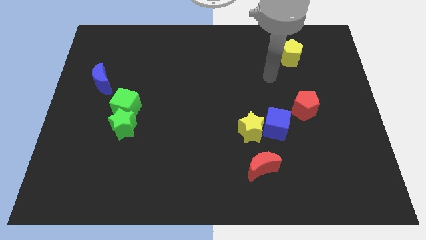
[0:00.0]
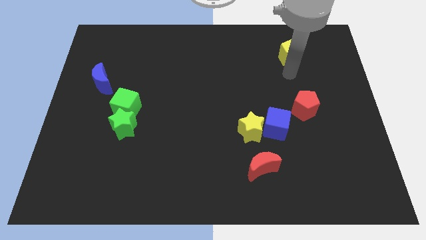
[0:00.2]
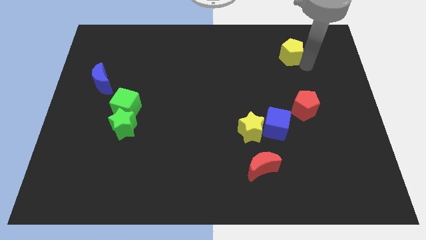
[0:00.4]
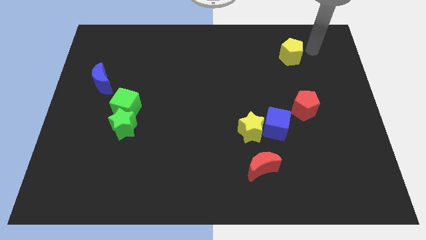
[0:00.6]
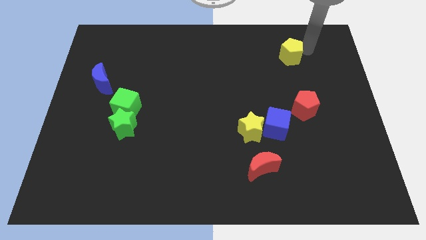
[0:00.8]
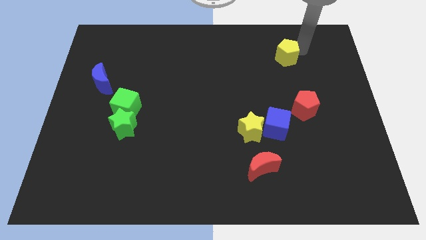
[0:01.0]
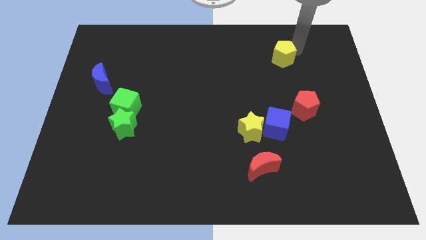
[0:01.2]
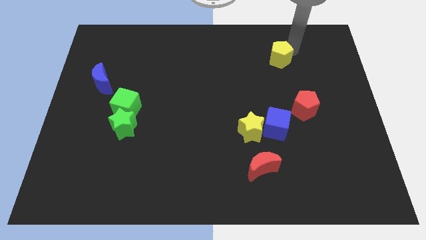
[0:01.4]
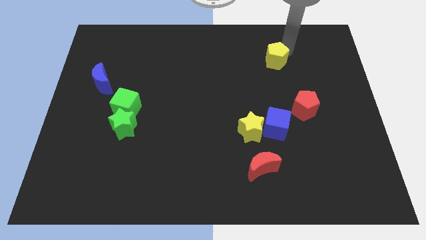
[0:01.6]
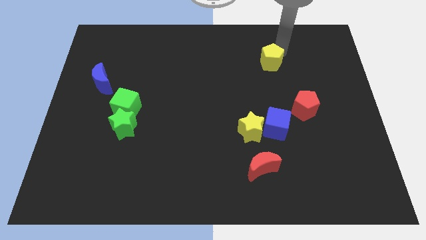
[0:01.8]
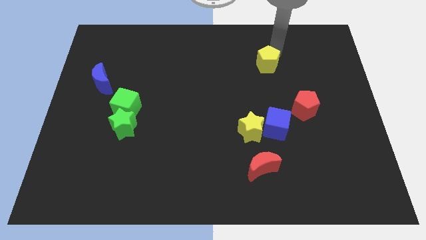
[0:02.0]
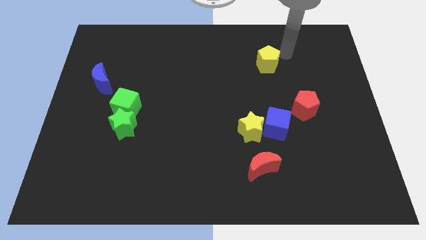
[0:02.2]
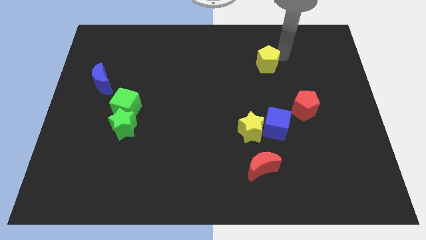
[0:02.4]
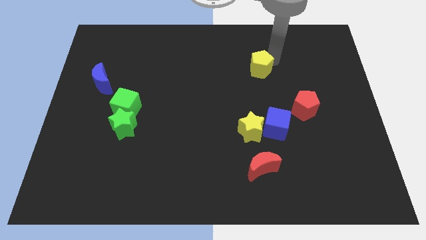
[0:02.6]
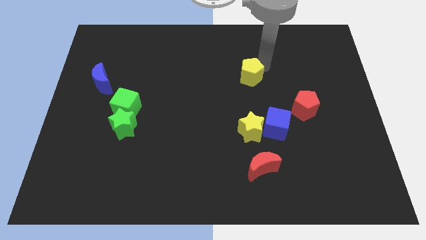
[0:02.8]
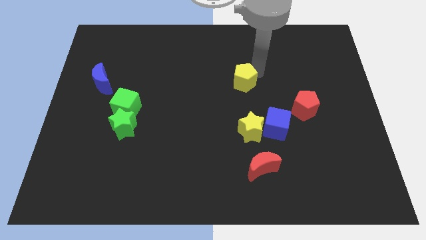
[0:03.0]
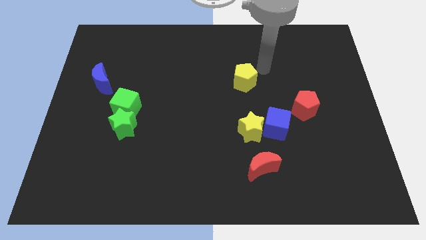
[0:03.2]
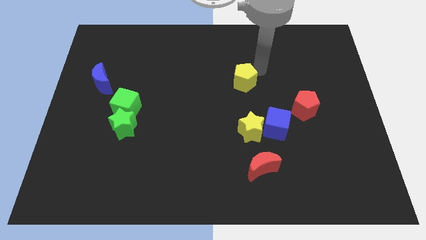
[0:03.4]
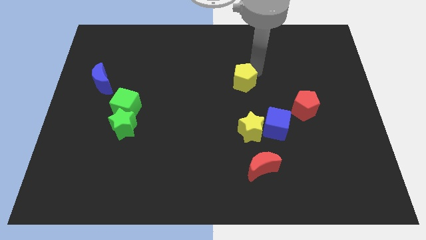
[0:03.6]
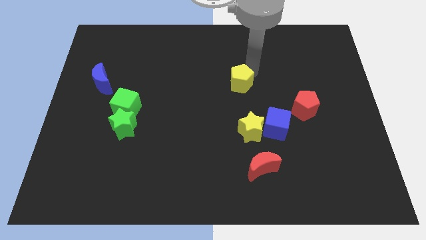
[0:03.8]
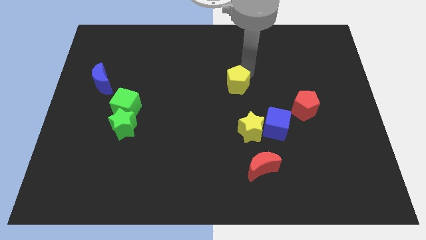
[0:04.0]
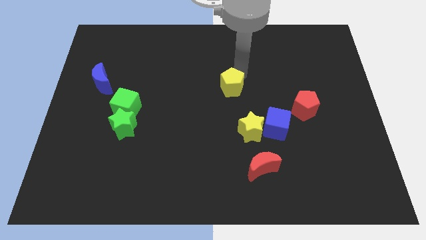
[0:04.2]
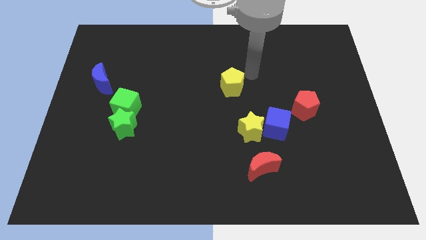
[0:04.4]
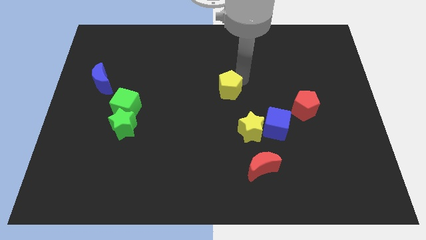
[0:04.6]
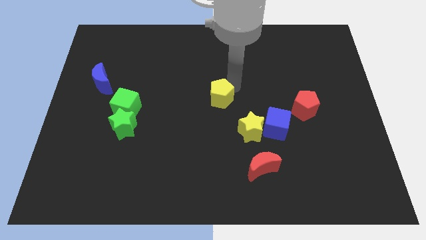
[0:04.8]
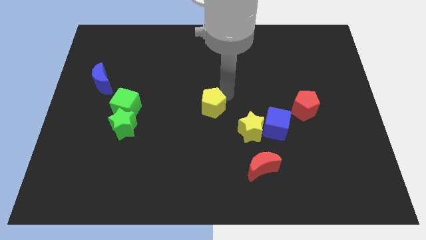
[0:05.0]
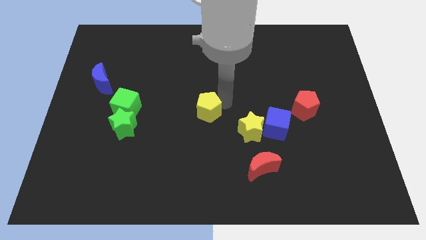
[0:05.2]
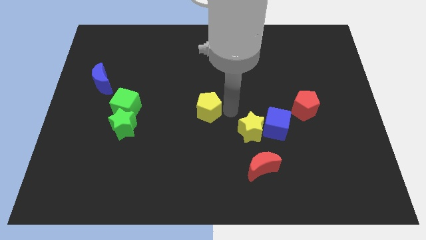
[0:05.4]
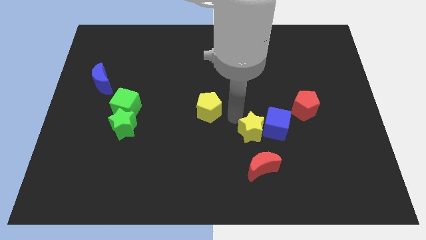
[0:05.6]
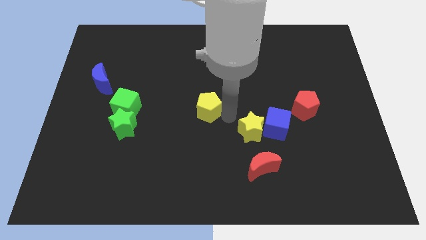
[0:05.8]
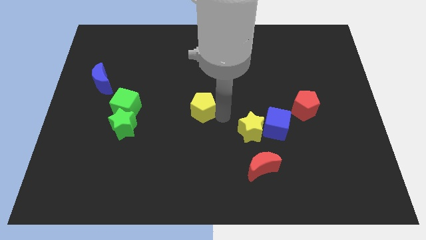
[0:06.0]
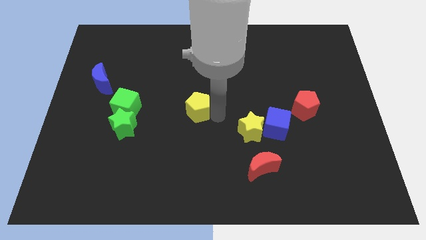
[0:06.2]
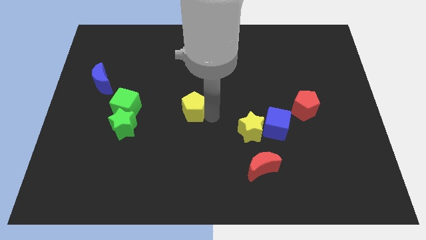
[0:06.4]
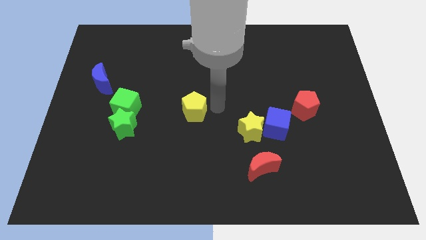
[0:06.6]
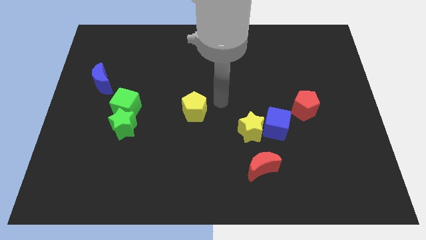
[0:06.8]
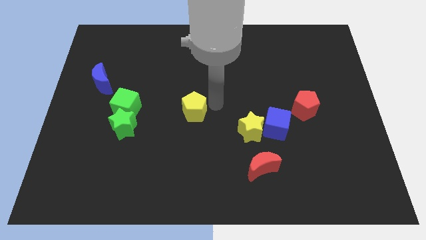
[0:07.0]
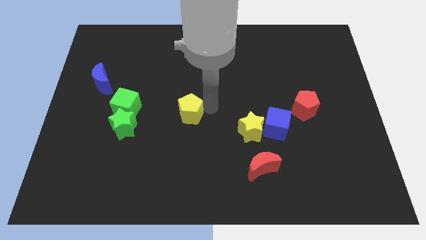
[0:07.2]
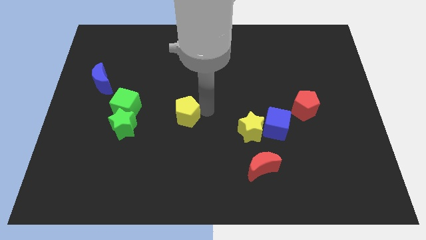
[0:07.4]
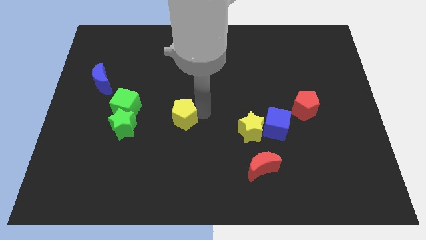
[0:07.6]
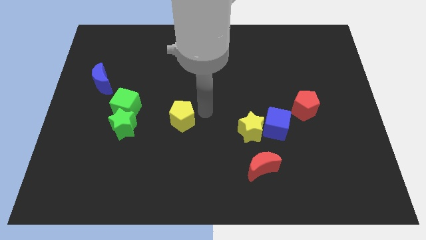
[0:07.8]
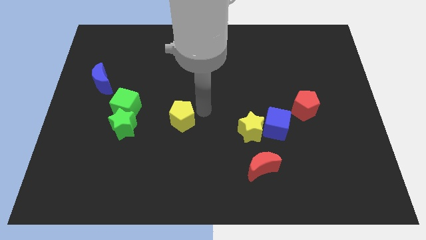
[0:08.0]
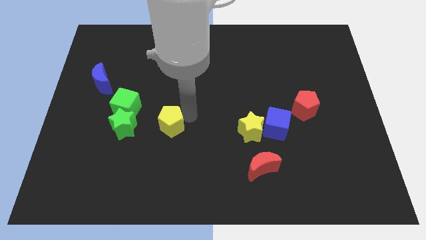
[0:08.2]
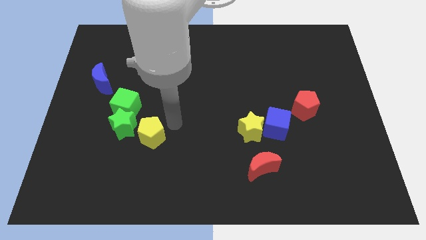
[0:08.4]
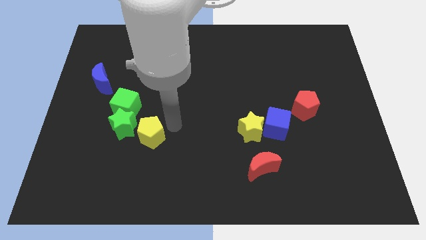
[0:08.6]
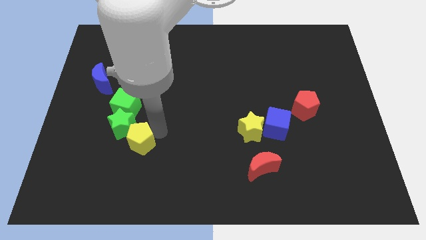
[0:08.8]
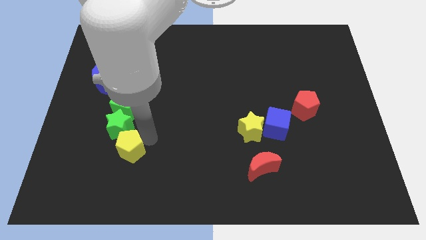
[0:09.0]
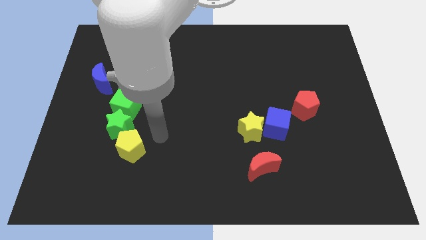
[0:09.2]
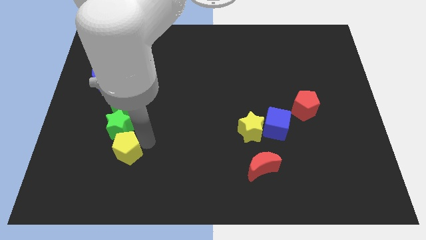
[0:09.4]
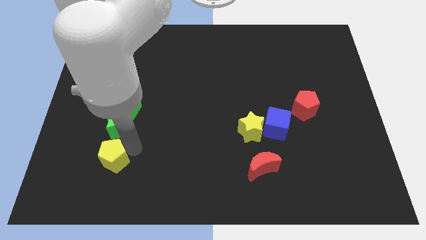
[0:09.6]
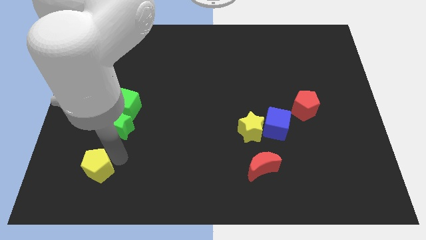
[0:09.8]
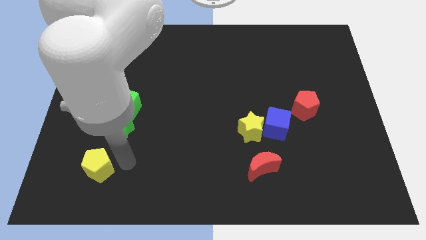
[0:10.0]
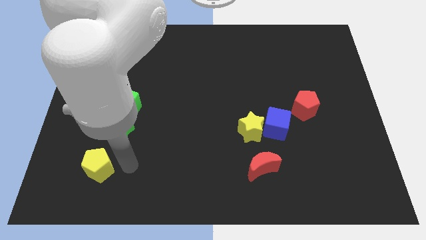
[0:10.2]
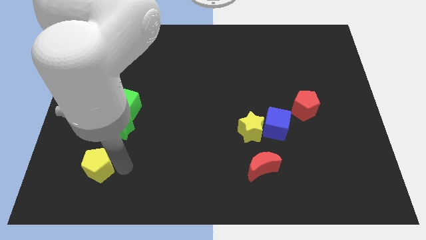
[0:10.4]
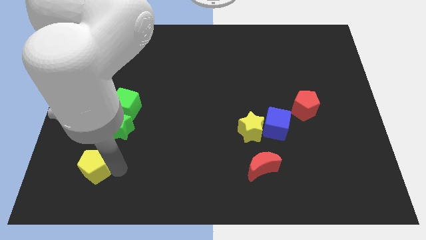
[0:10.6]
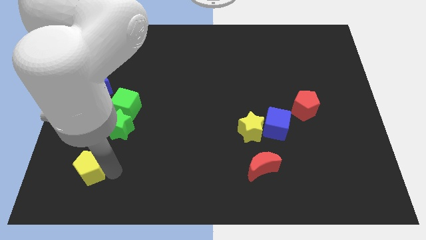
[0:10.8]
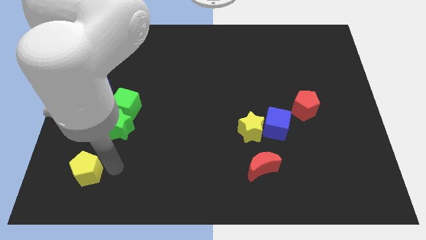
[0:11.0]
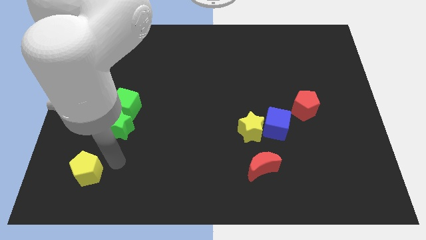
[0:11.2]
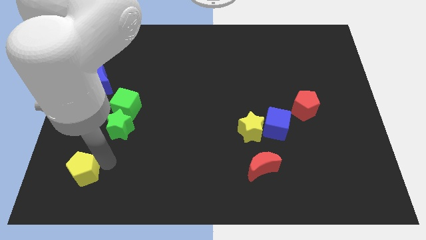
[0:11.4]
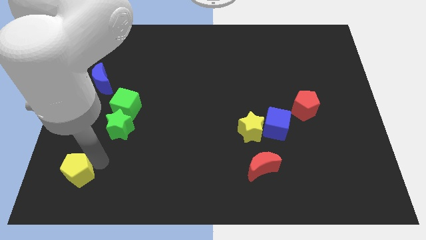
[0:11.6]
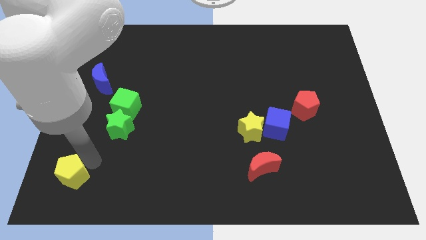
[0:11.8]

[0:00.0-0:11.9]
put the yellow pentagon to the lower left corner

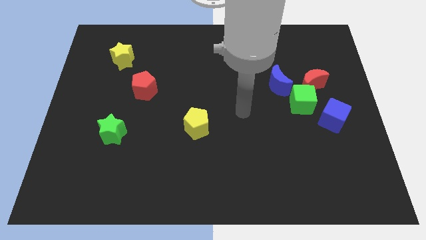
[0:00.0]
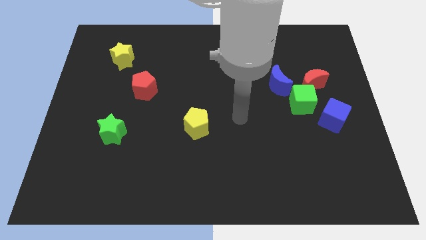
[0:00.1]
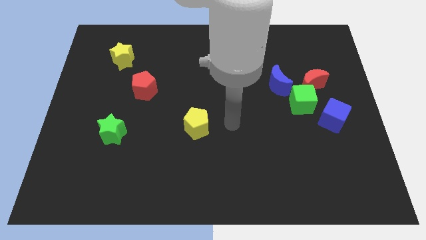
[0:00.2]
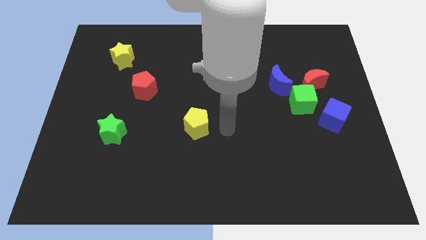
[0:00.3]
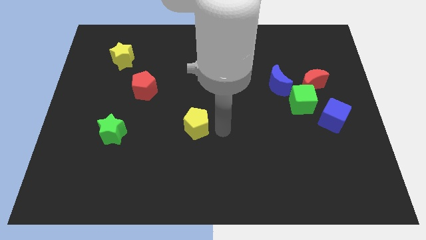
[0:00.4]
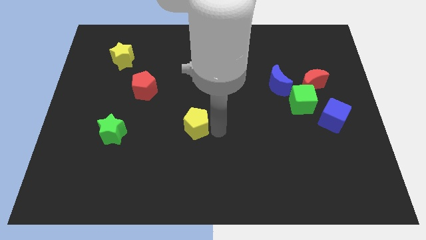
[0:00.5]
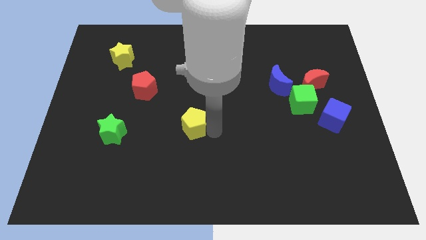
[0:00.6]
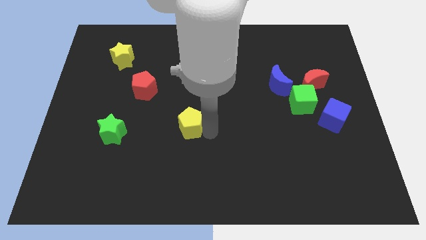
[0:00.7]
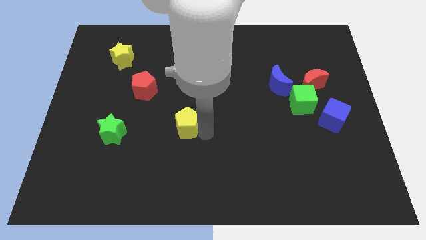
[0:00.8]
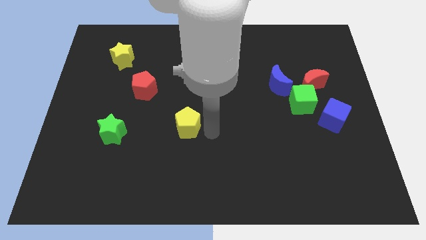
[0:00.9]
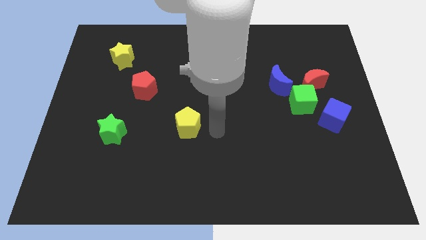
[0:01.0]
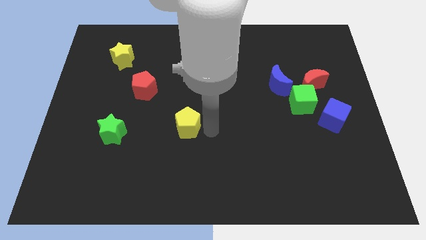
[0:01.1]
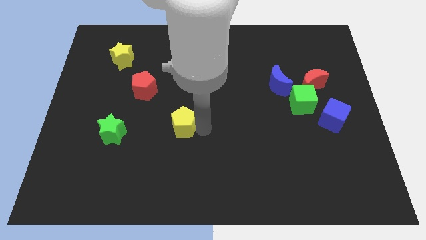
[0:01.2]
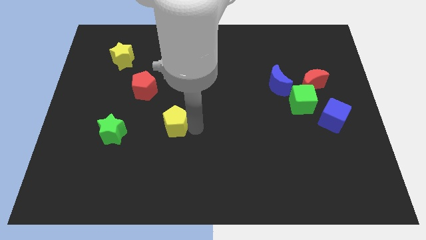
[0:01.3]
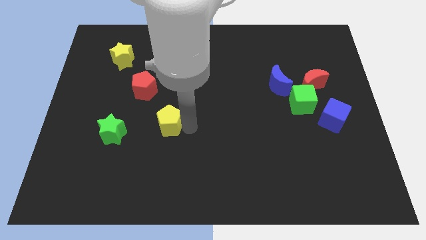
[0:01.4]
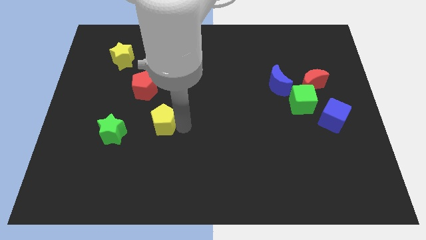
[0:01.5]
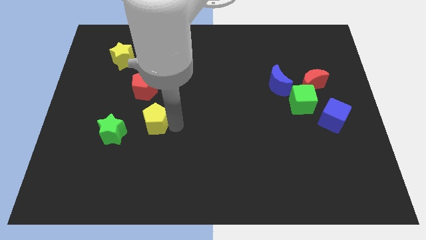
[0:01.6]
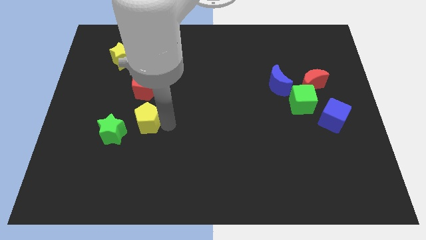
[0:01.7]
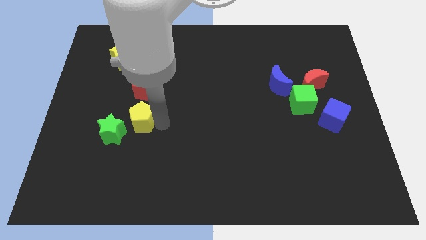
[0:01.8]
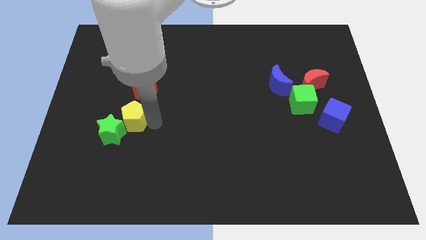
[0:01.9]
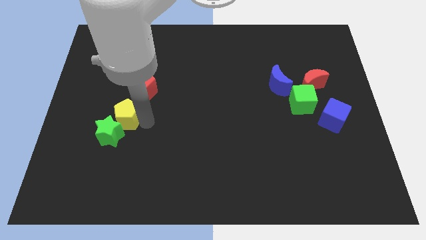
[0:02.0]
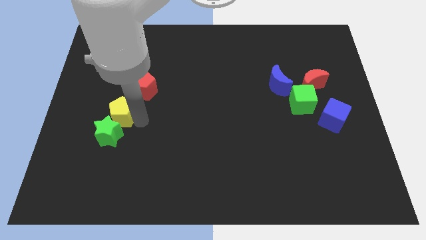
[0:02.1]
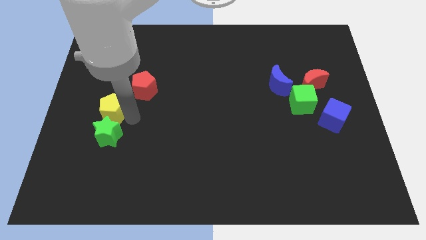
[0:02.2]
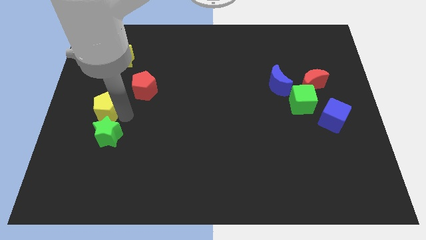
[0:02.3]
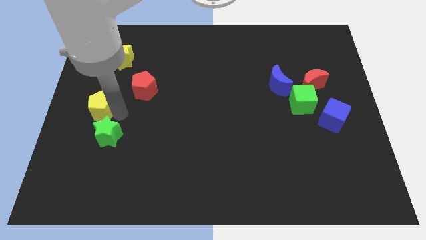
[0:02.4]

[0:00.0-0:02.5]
push the yellow pentagon to the center left
